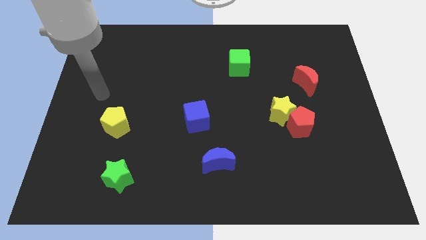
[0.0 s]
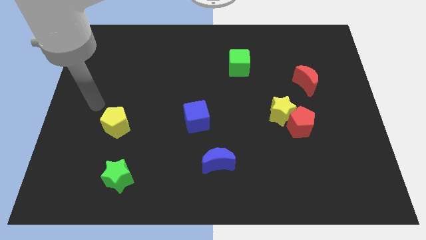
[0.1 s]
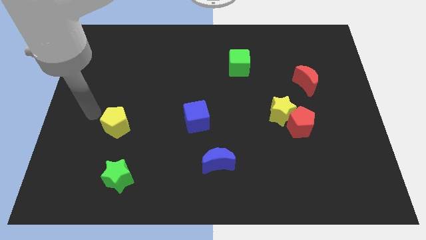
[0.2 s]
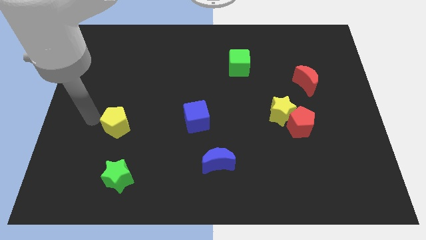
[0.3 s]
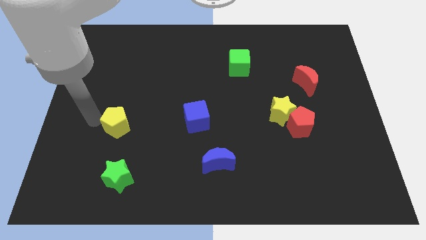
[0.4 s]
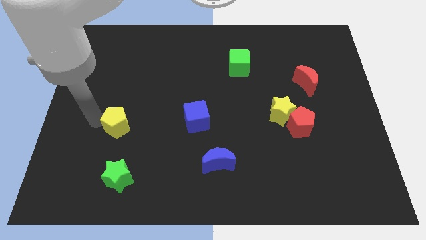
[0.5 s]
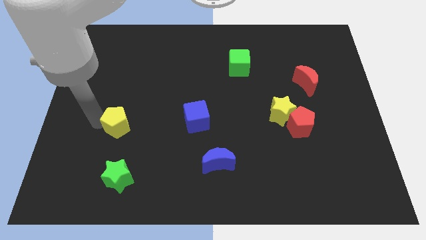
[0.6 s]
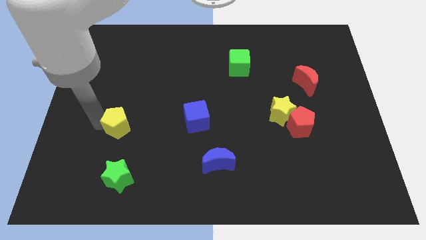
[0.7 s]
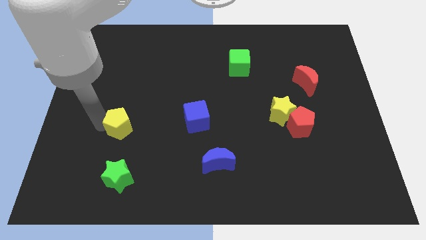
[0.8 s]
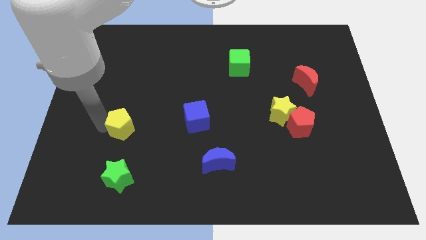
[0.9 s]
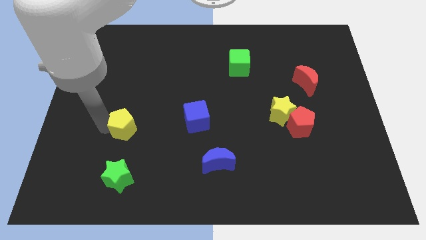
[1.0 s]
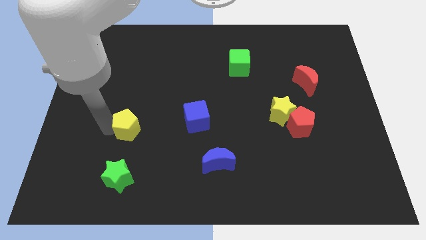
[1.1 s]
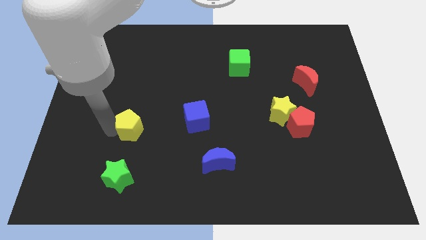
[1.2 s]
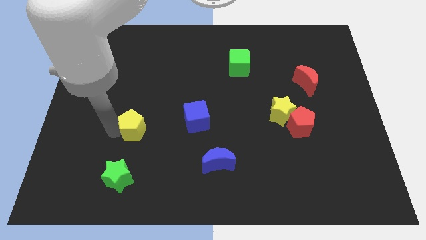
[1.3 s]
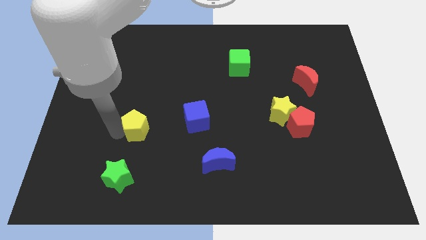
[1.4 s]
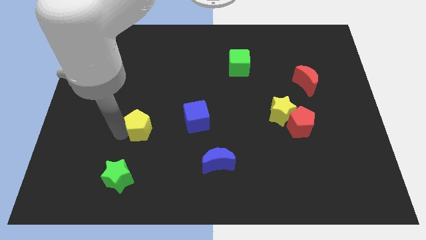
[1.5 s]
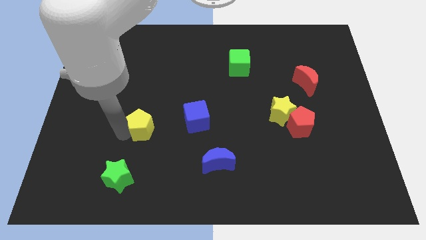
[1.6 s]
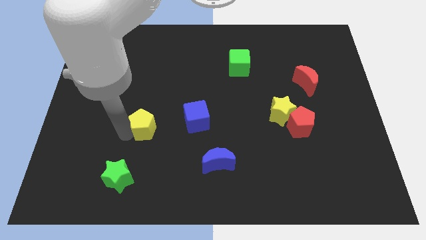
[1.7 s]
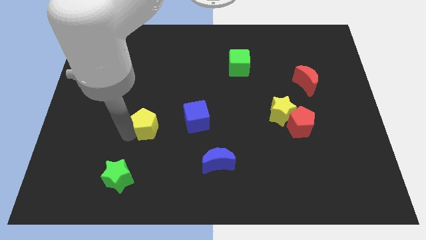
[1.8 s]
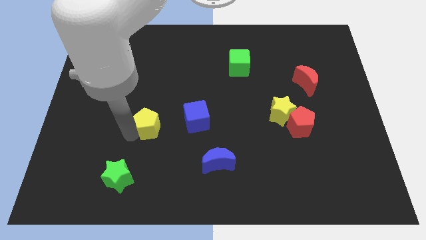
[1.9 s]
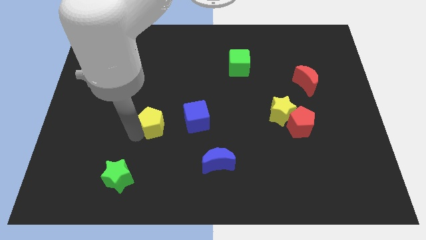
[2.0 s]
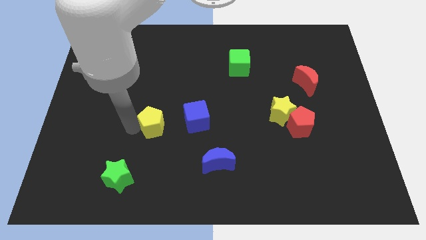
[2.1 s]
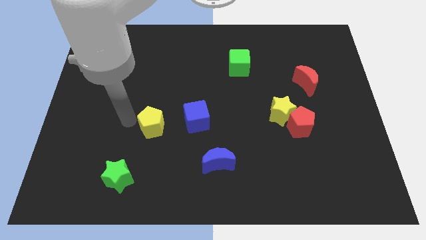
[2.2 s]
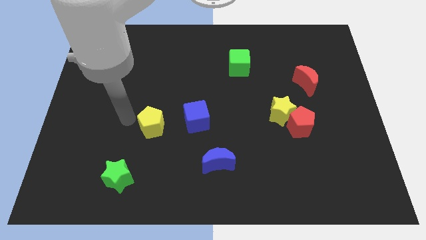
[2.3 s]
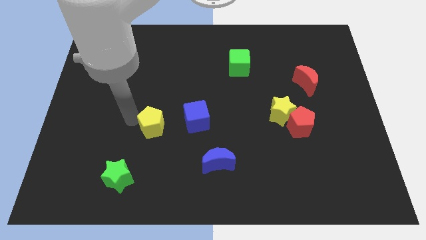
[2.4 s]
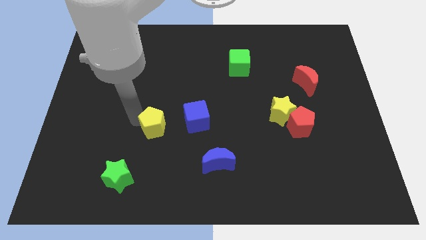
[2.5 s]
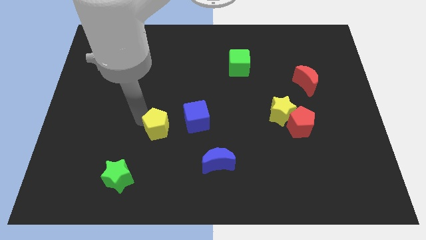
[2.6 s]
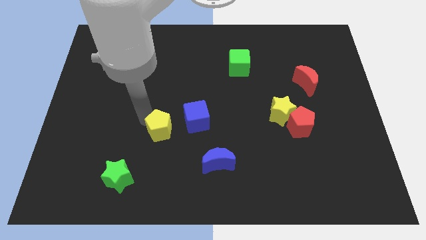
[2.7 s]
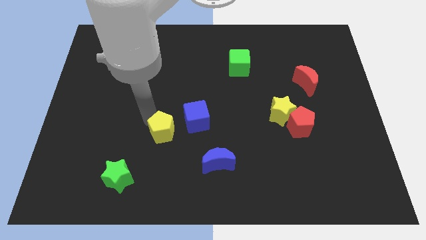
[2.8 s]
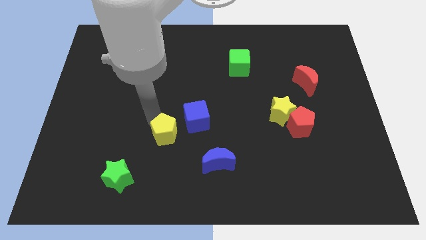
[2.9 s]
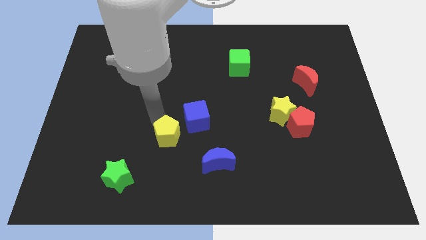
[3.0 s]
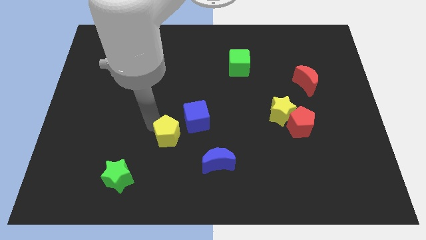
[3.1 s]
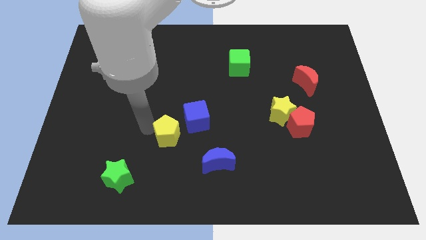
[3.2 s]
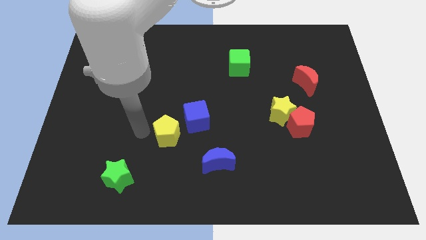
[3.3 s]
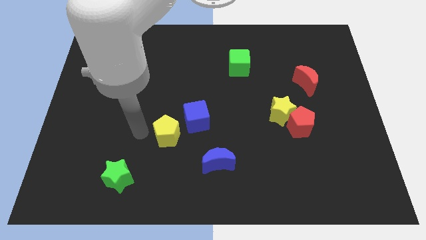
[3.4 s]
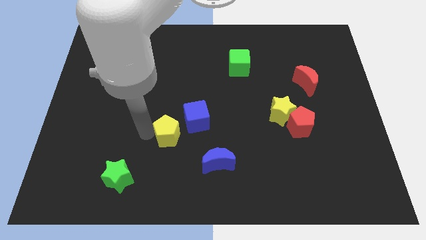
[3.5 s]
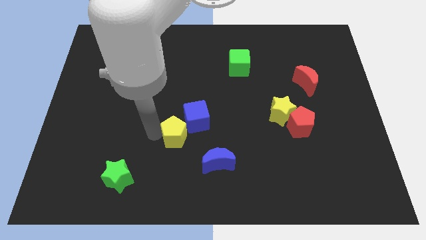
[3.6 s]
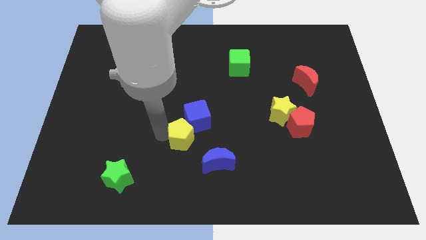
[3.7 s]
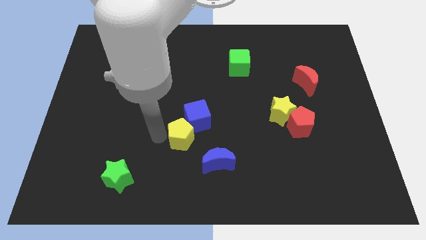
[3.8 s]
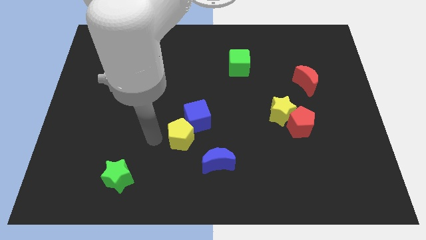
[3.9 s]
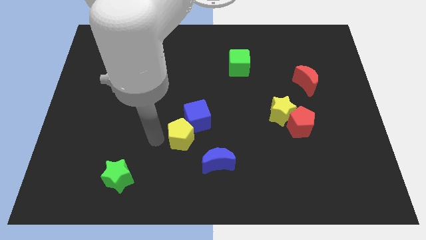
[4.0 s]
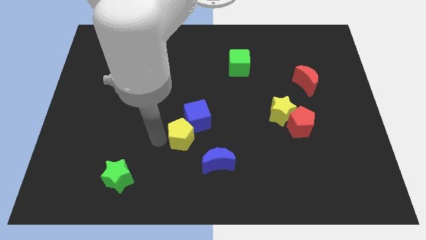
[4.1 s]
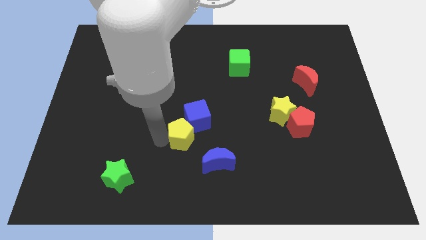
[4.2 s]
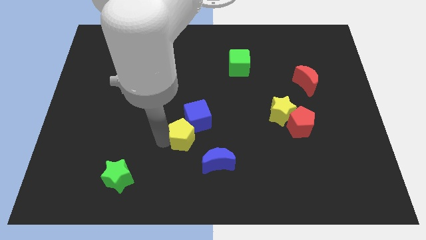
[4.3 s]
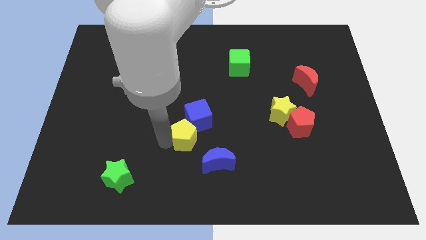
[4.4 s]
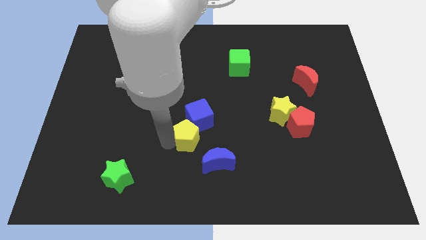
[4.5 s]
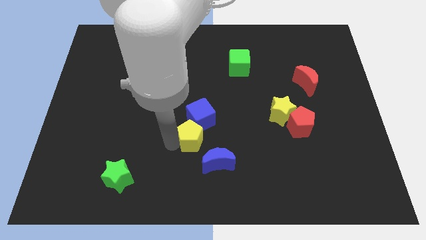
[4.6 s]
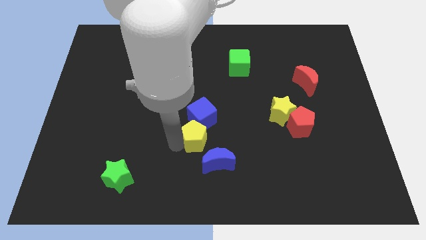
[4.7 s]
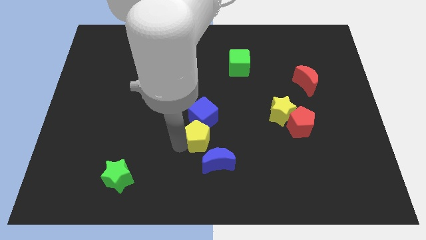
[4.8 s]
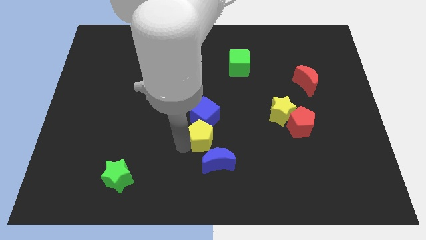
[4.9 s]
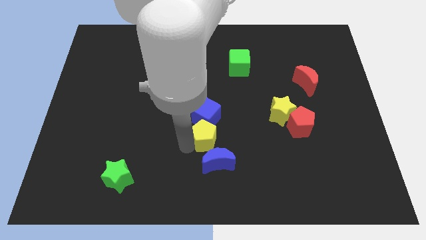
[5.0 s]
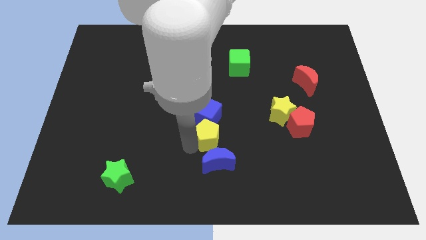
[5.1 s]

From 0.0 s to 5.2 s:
slide the yellow pentagon to the right

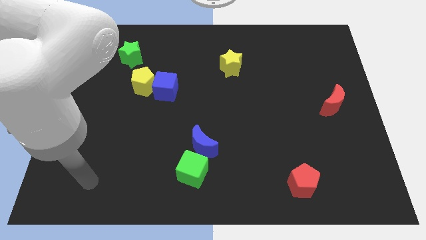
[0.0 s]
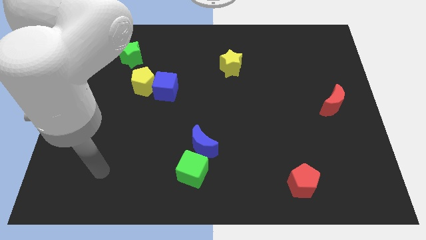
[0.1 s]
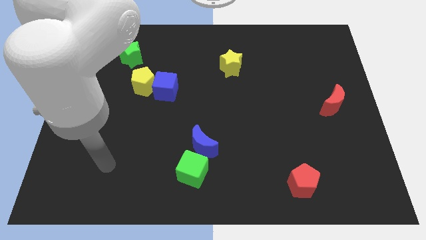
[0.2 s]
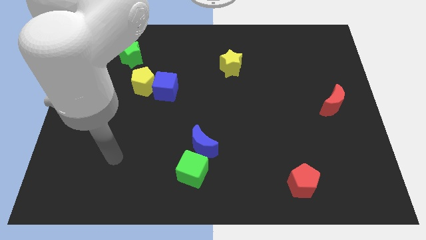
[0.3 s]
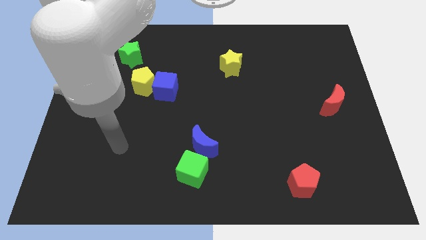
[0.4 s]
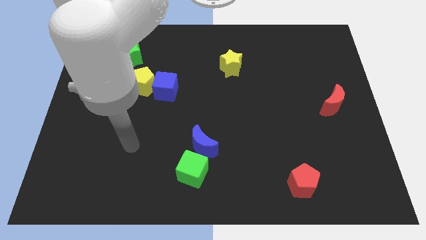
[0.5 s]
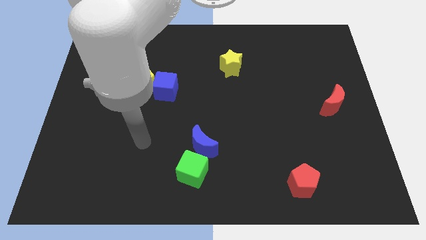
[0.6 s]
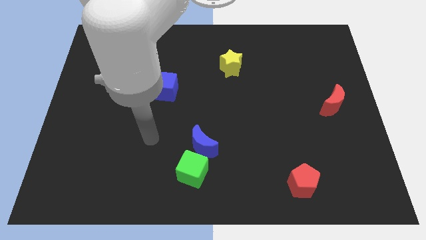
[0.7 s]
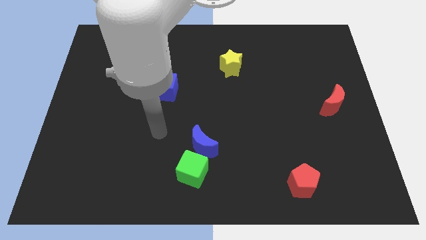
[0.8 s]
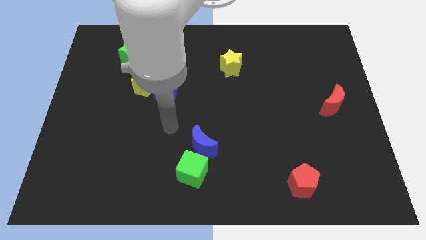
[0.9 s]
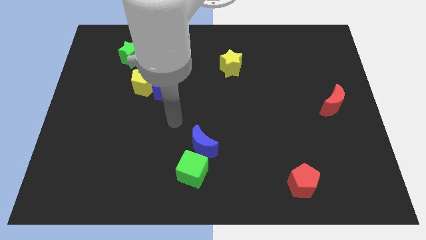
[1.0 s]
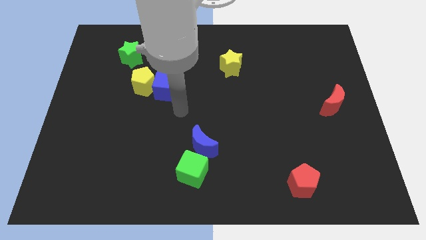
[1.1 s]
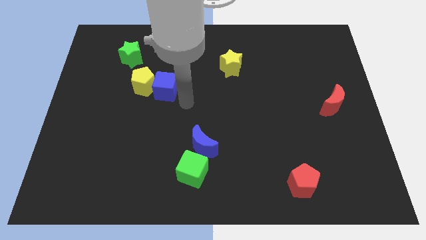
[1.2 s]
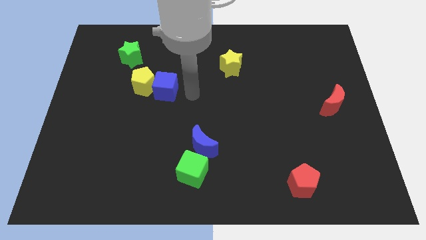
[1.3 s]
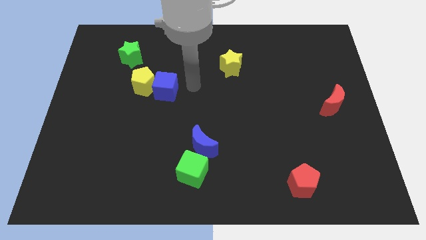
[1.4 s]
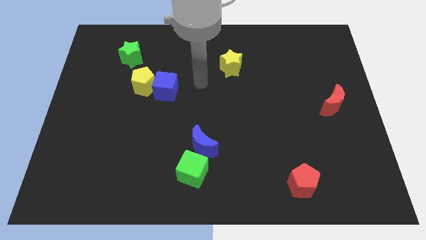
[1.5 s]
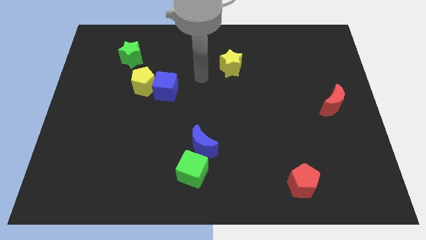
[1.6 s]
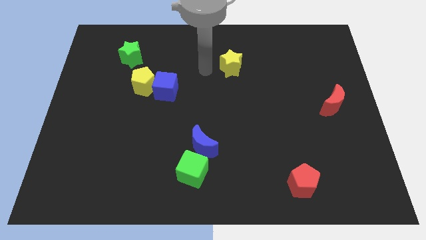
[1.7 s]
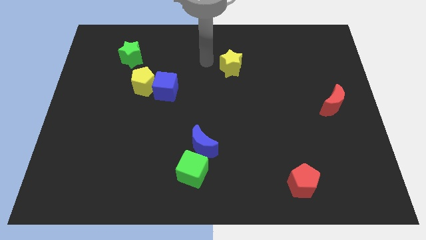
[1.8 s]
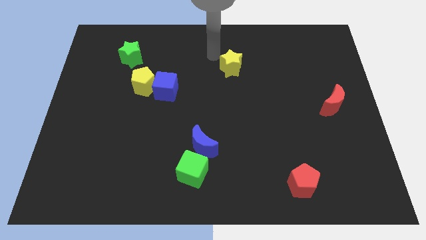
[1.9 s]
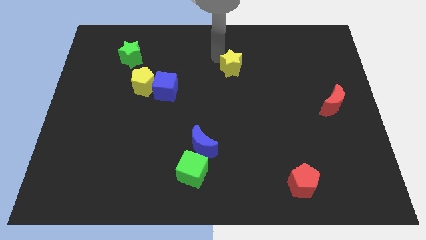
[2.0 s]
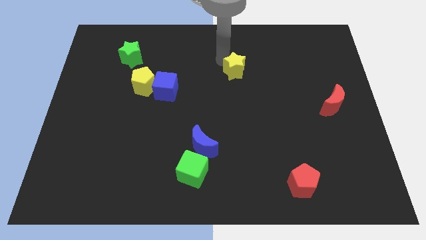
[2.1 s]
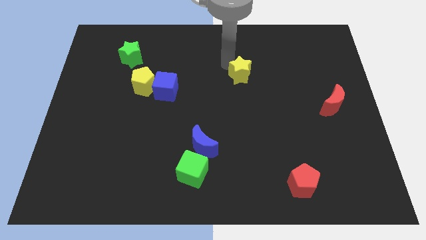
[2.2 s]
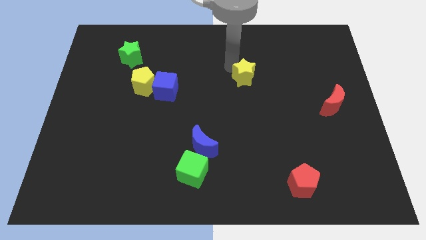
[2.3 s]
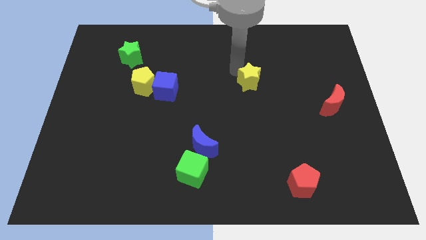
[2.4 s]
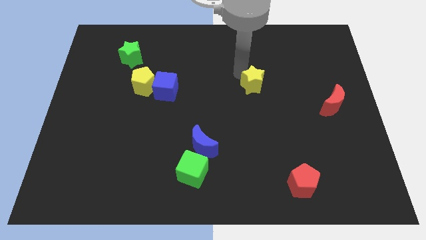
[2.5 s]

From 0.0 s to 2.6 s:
push the yellow star diagonally downwards and to the right slightly
